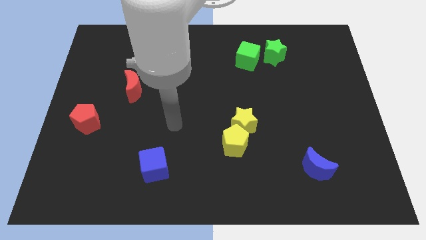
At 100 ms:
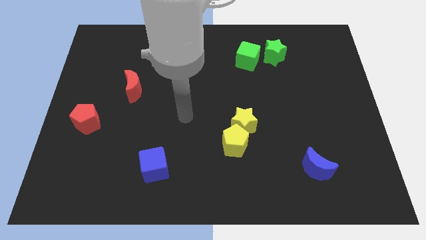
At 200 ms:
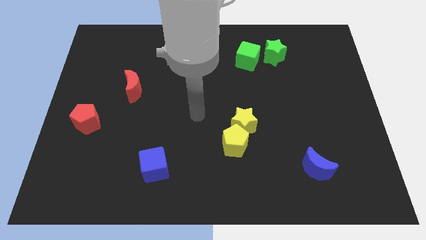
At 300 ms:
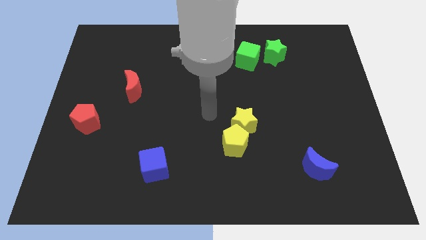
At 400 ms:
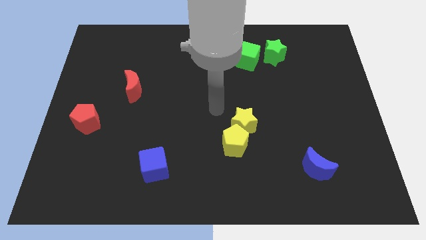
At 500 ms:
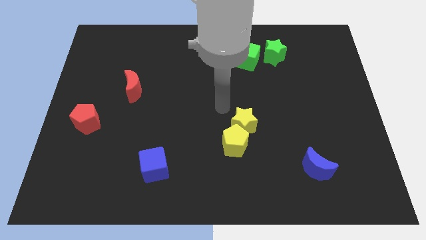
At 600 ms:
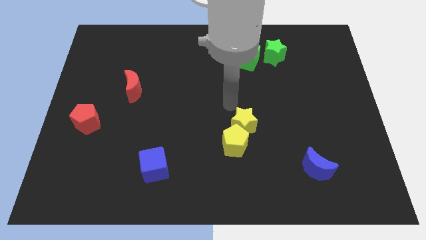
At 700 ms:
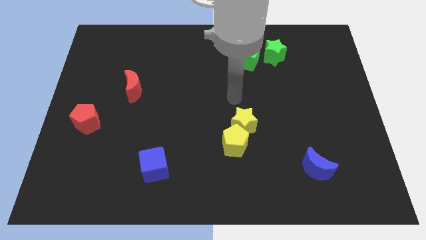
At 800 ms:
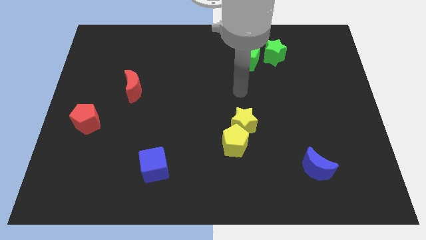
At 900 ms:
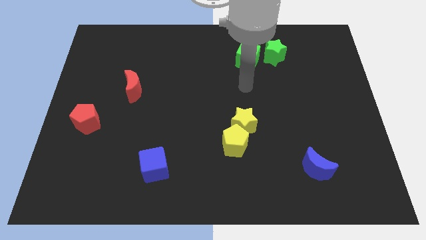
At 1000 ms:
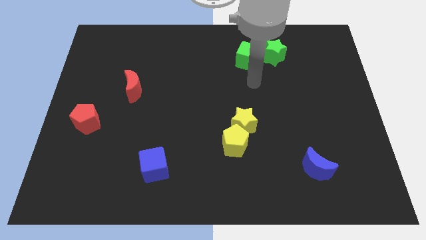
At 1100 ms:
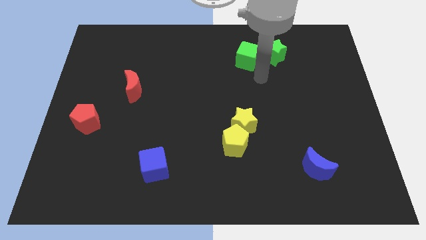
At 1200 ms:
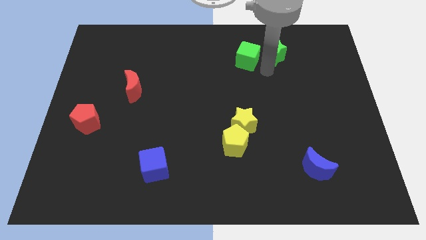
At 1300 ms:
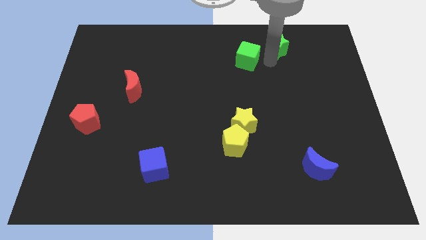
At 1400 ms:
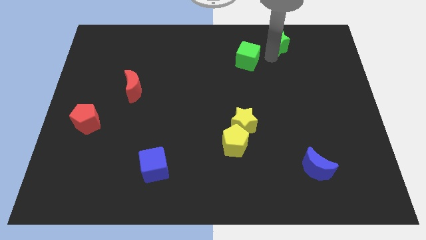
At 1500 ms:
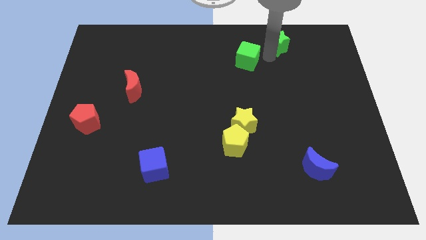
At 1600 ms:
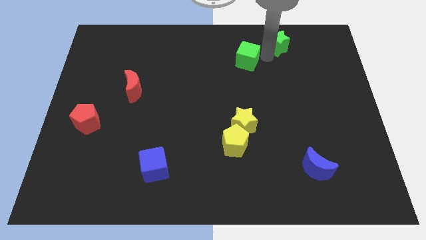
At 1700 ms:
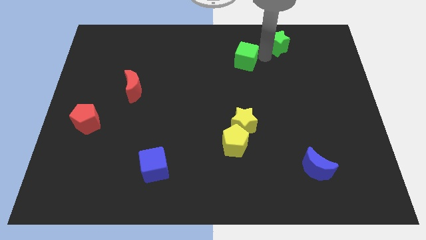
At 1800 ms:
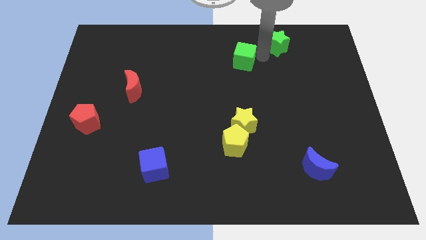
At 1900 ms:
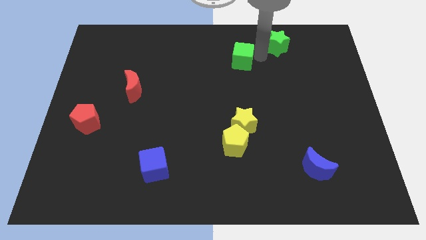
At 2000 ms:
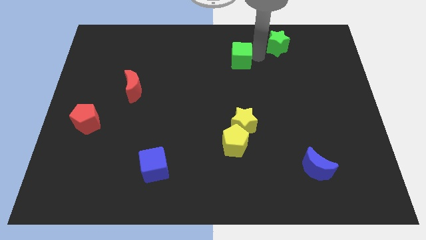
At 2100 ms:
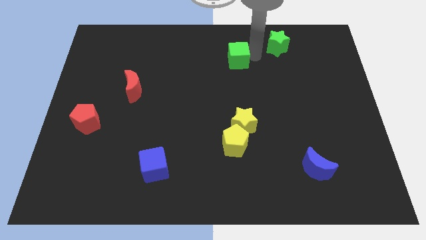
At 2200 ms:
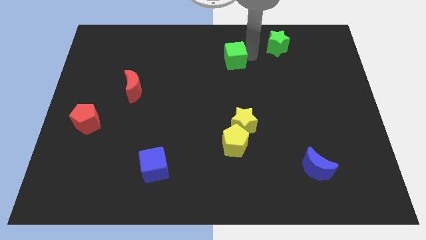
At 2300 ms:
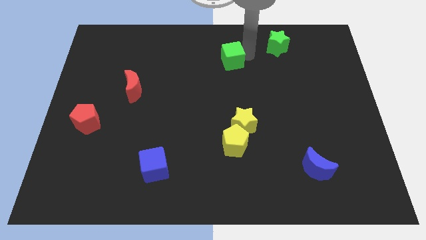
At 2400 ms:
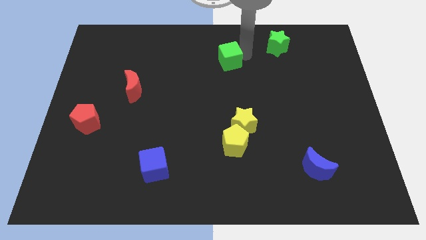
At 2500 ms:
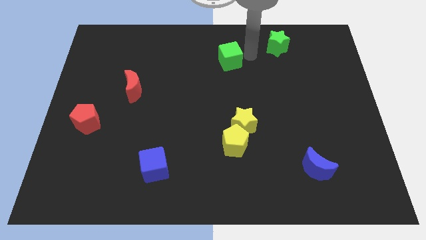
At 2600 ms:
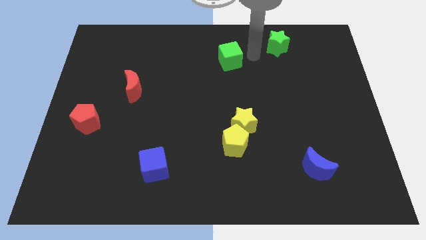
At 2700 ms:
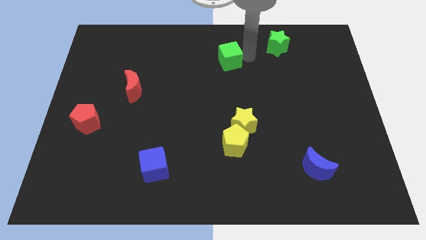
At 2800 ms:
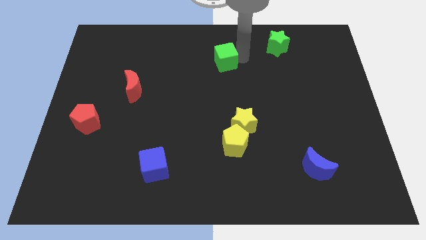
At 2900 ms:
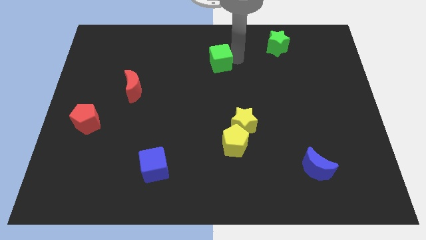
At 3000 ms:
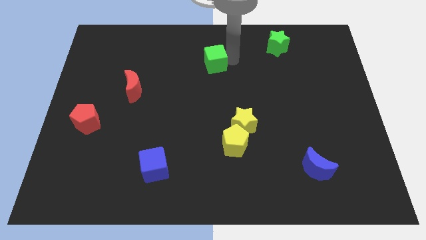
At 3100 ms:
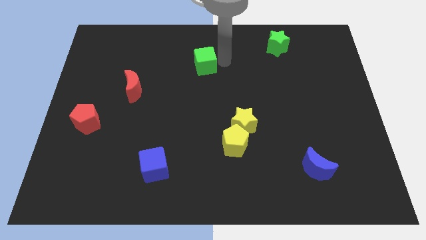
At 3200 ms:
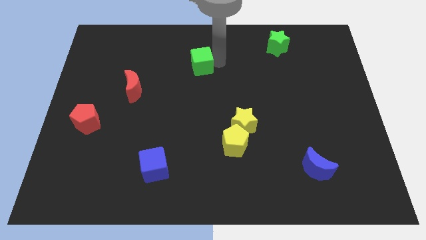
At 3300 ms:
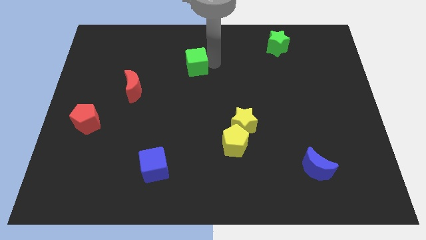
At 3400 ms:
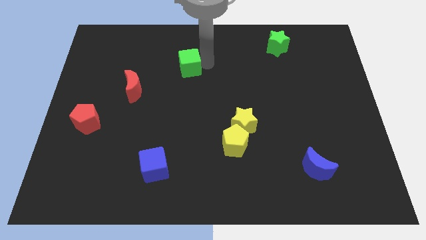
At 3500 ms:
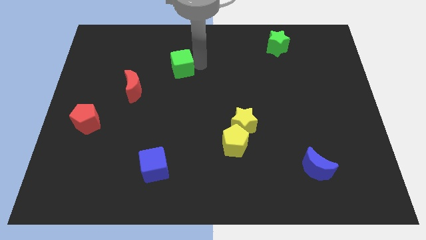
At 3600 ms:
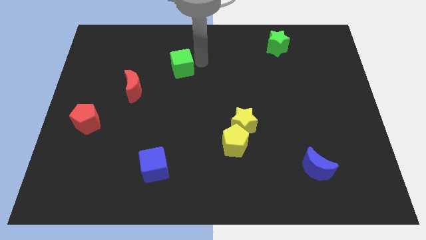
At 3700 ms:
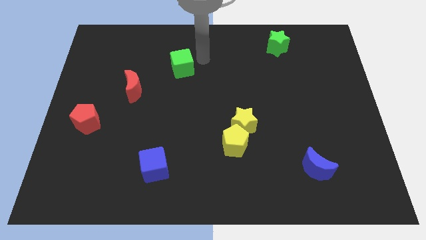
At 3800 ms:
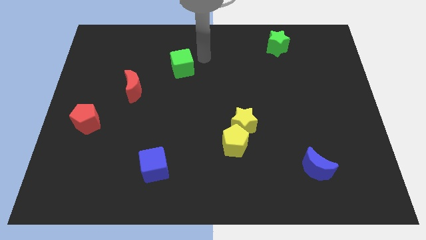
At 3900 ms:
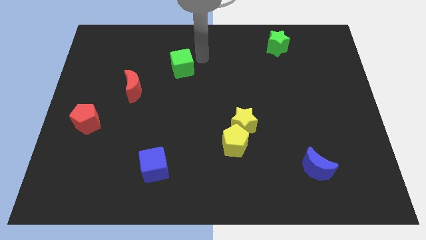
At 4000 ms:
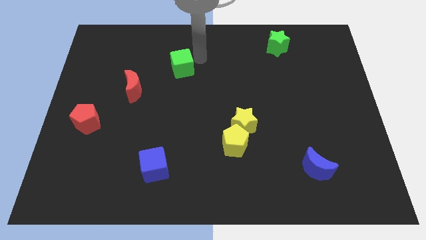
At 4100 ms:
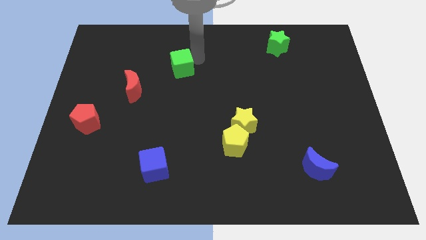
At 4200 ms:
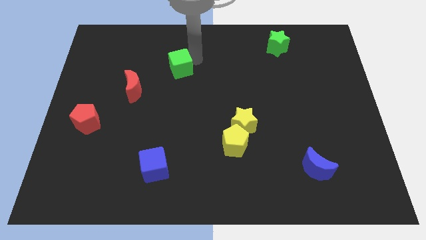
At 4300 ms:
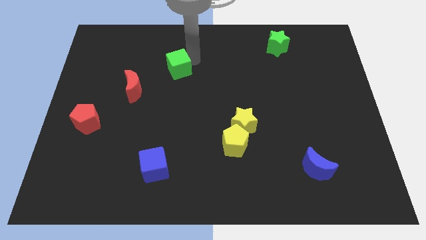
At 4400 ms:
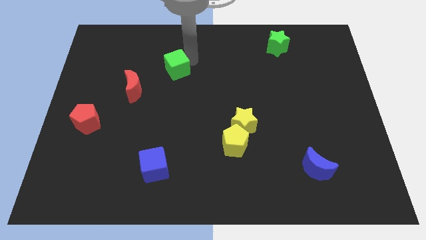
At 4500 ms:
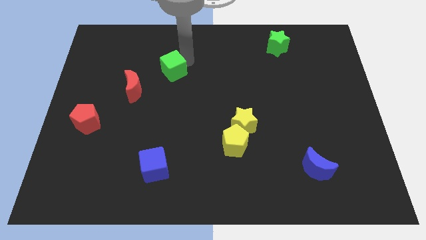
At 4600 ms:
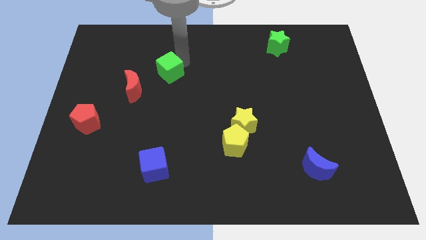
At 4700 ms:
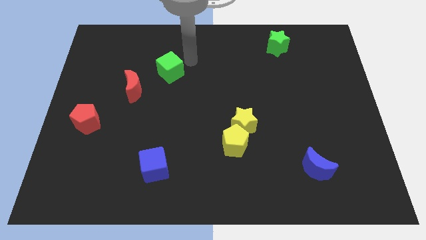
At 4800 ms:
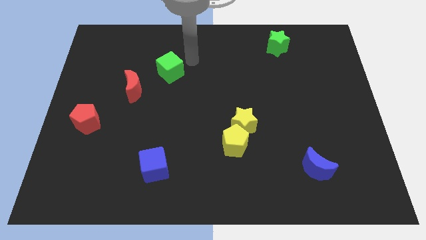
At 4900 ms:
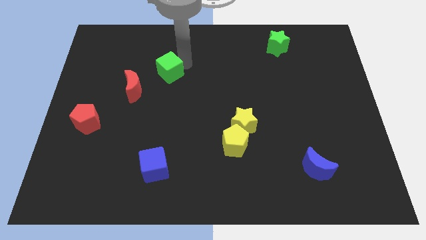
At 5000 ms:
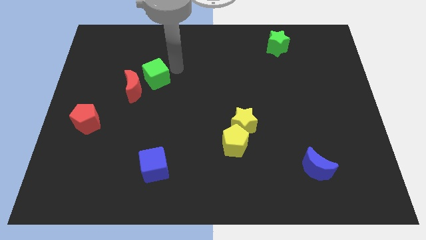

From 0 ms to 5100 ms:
put the green cube towards the red moon

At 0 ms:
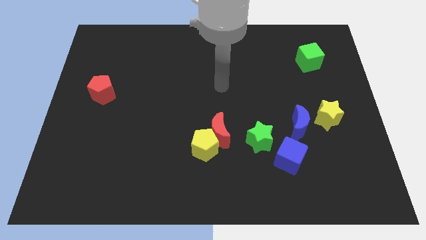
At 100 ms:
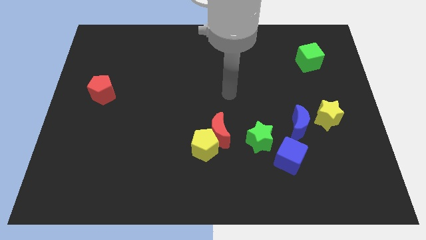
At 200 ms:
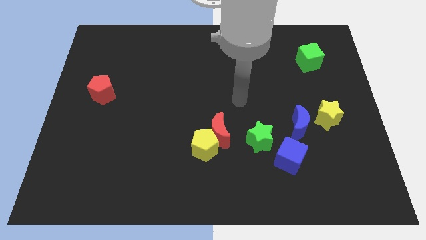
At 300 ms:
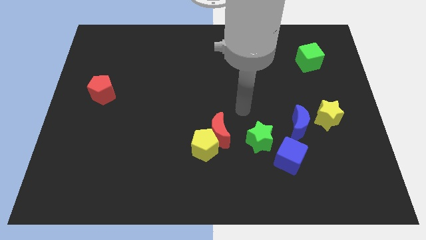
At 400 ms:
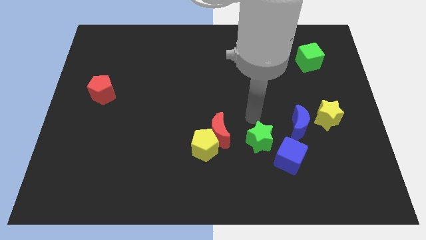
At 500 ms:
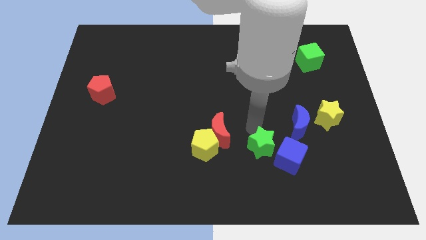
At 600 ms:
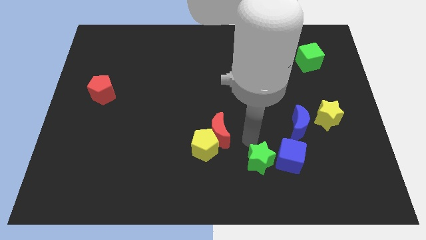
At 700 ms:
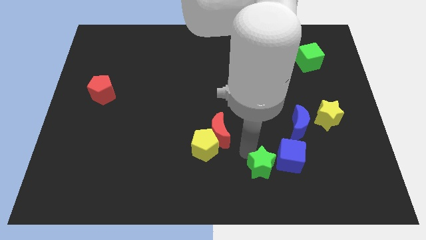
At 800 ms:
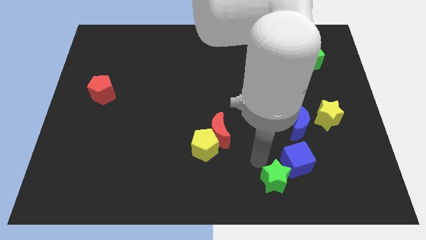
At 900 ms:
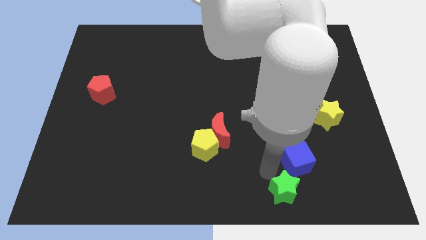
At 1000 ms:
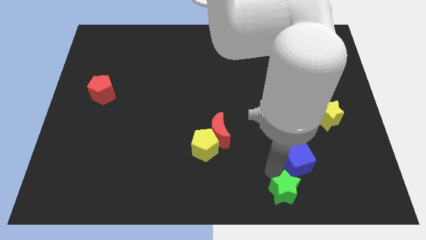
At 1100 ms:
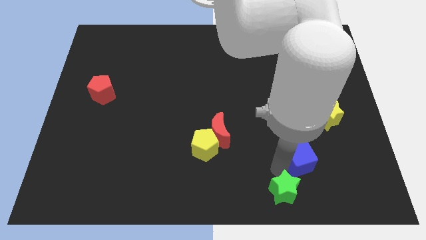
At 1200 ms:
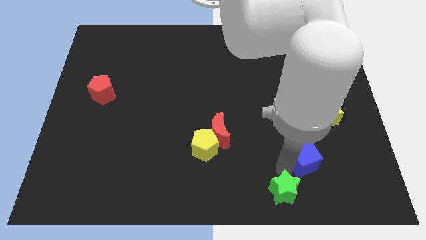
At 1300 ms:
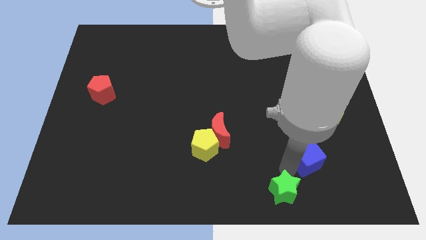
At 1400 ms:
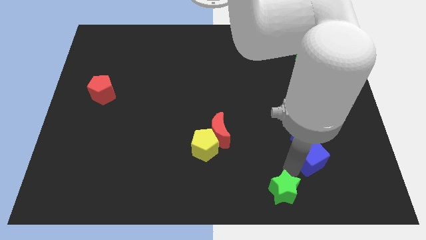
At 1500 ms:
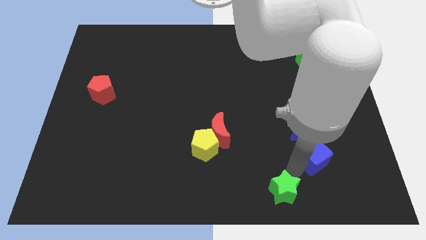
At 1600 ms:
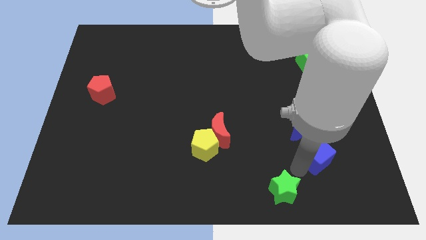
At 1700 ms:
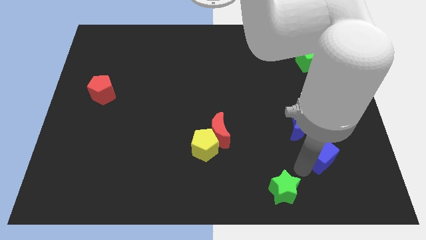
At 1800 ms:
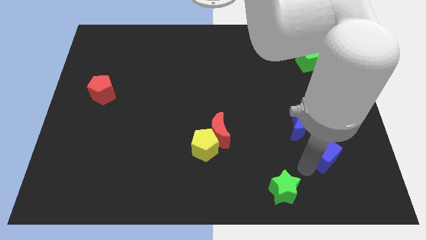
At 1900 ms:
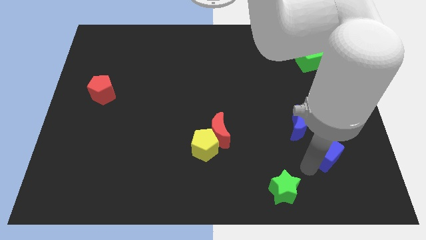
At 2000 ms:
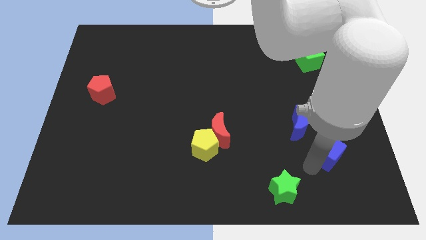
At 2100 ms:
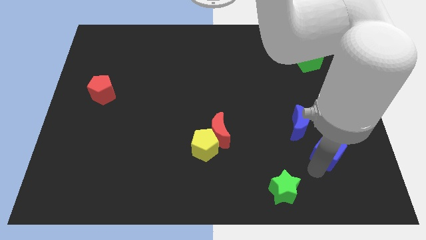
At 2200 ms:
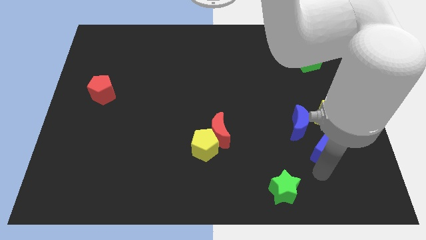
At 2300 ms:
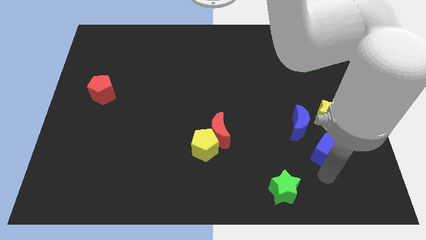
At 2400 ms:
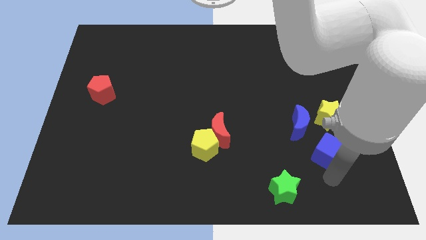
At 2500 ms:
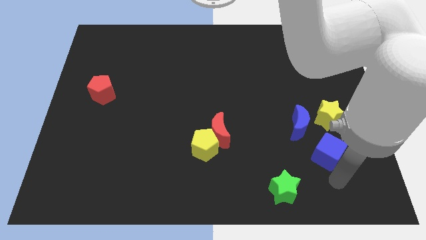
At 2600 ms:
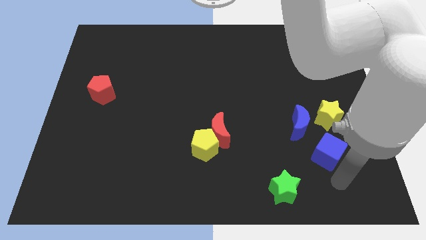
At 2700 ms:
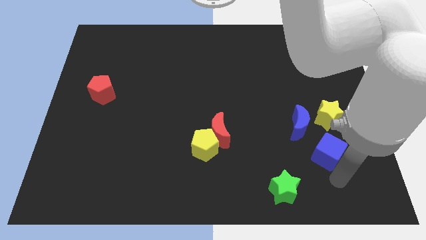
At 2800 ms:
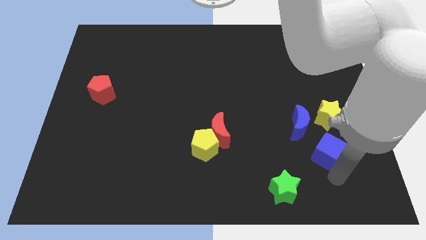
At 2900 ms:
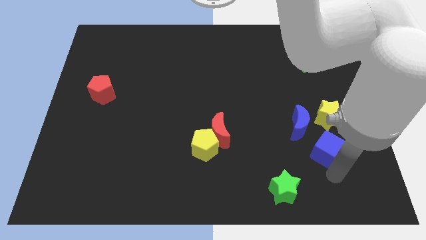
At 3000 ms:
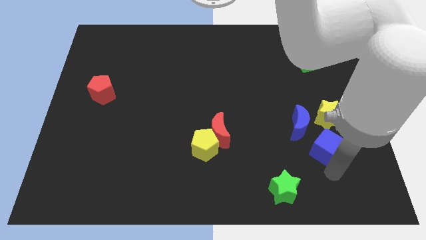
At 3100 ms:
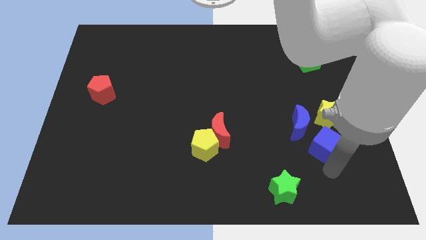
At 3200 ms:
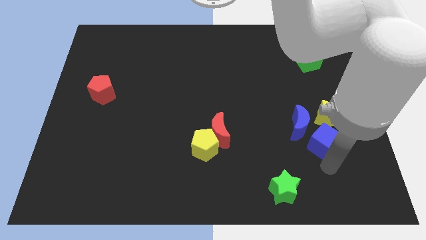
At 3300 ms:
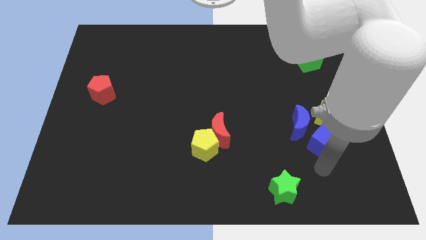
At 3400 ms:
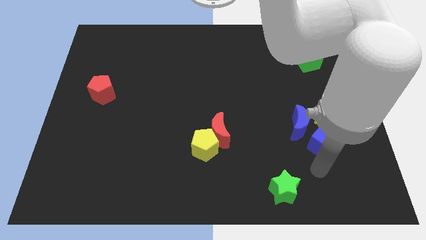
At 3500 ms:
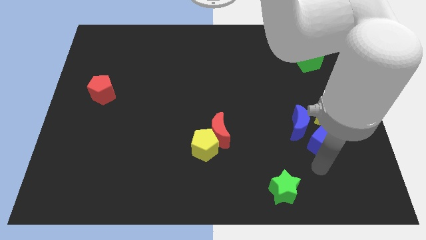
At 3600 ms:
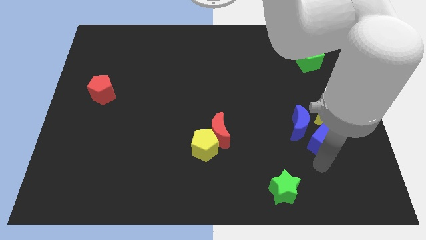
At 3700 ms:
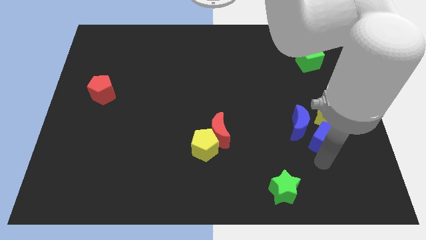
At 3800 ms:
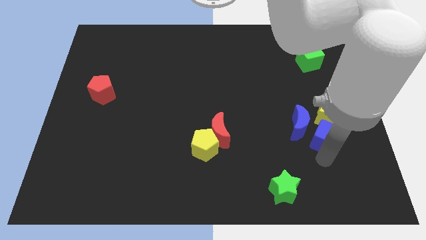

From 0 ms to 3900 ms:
slide the blue cube towards the yellow star
